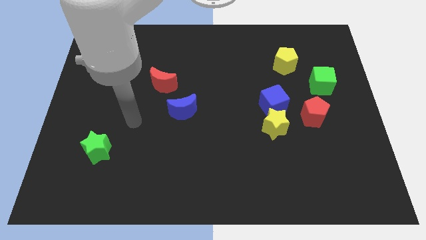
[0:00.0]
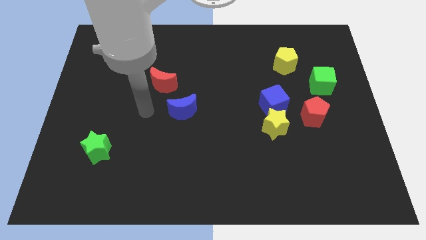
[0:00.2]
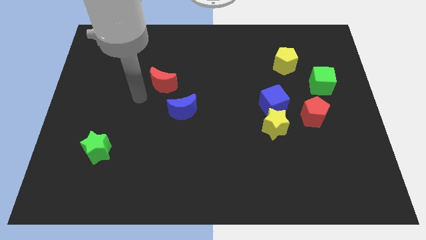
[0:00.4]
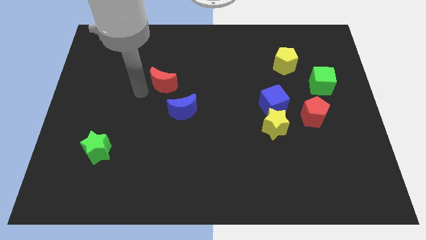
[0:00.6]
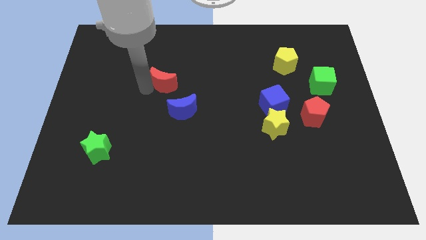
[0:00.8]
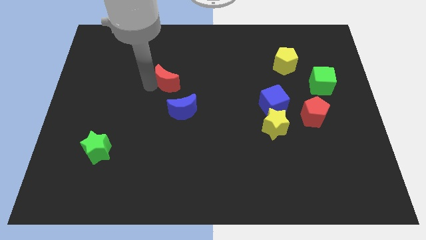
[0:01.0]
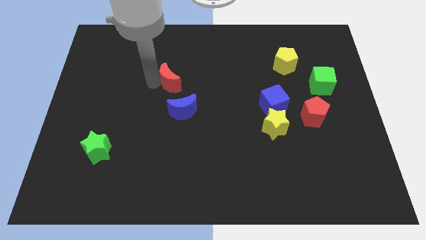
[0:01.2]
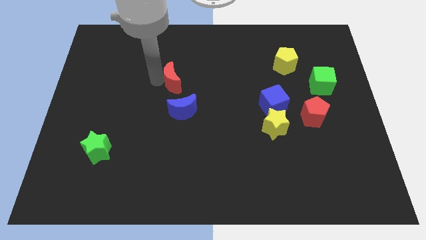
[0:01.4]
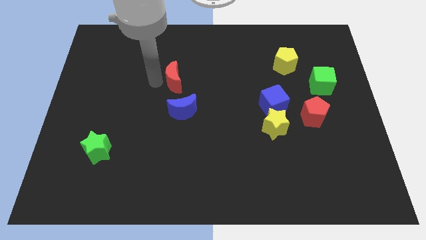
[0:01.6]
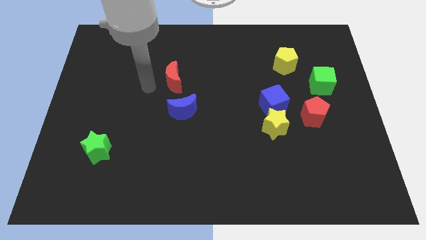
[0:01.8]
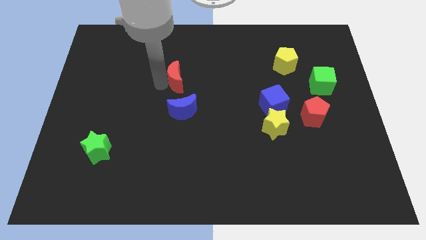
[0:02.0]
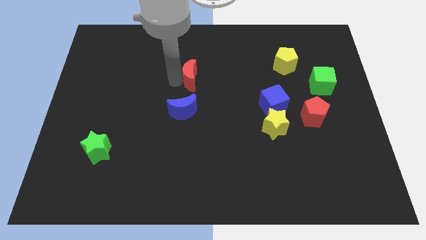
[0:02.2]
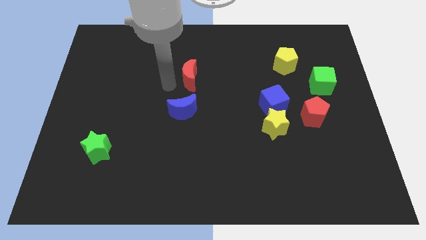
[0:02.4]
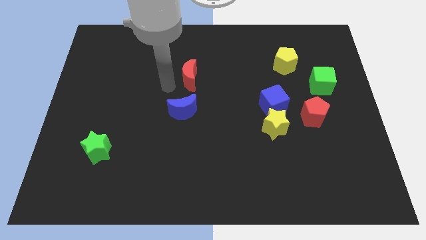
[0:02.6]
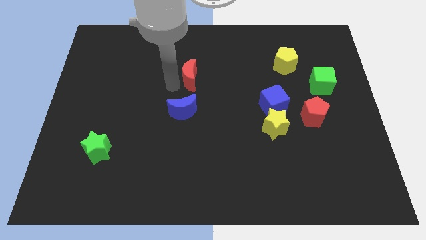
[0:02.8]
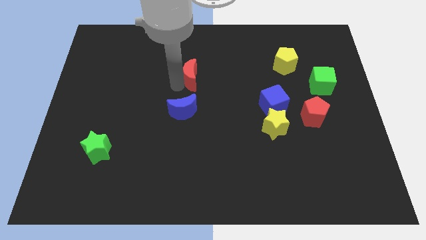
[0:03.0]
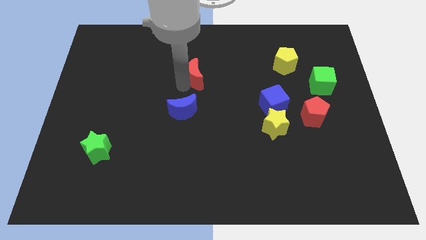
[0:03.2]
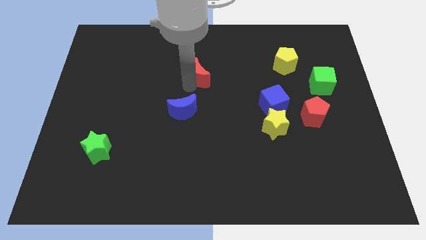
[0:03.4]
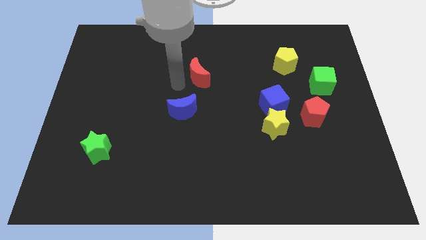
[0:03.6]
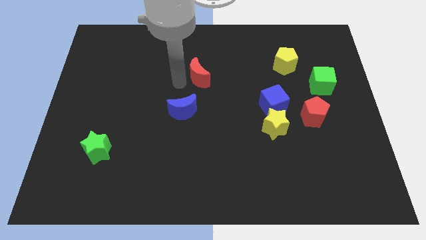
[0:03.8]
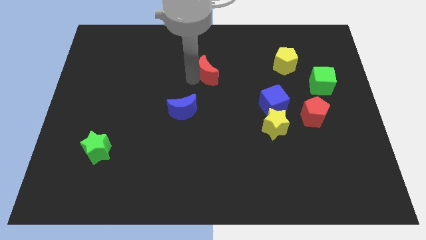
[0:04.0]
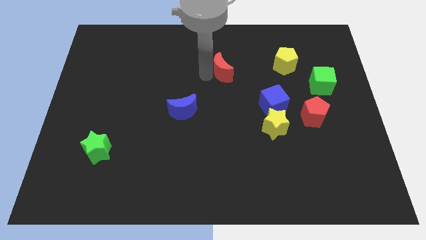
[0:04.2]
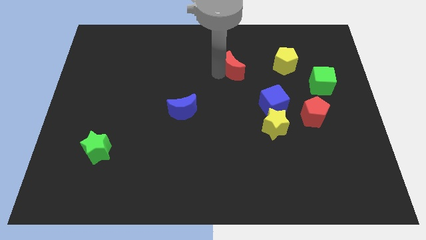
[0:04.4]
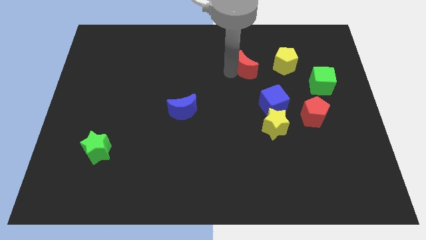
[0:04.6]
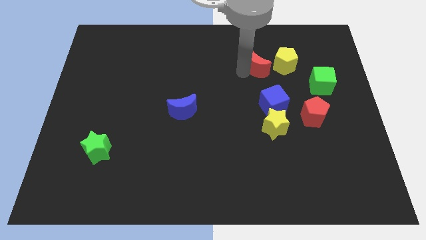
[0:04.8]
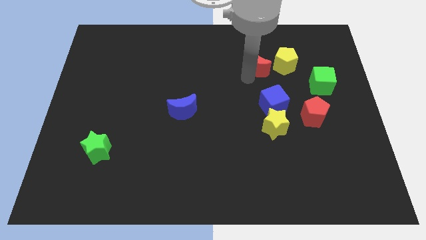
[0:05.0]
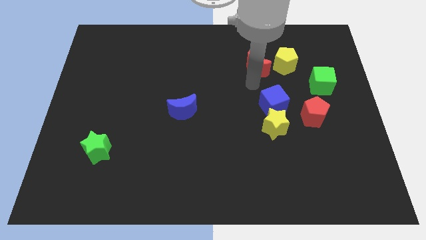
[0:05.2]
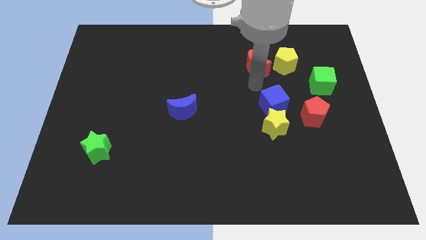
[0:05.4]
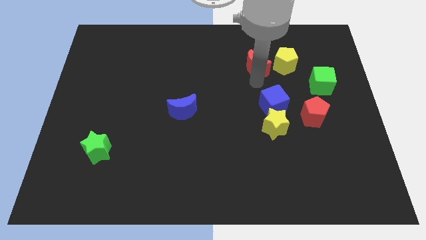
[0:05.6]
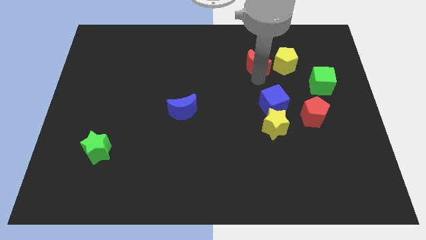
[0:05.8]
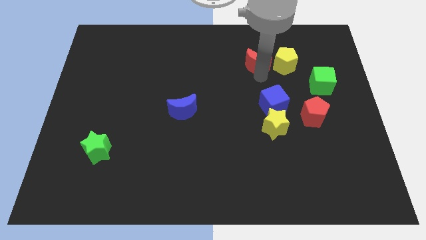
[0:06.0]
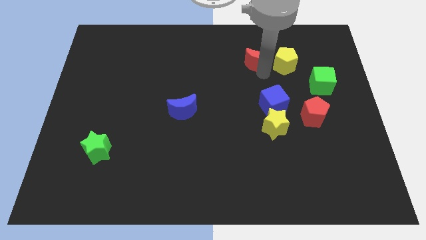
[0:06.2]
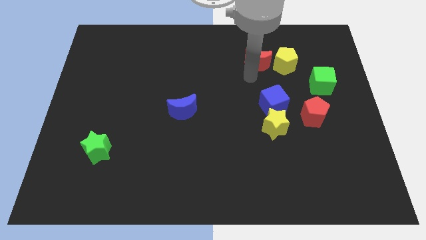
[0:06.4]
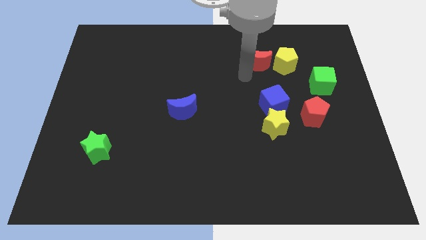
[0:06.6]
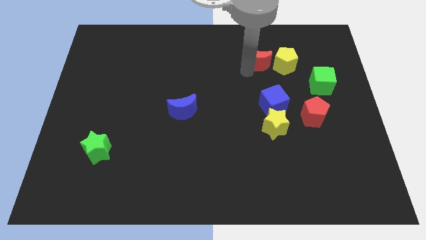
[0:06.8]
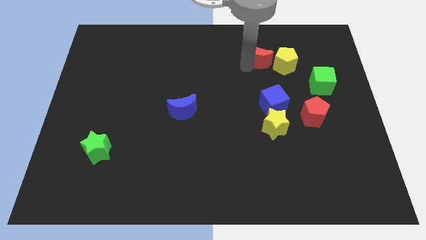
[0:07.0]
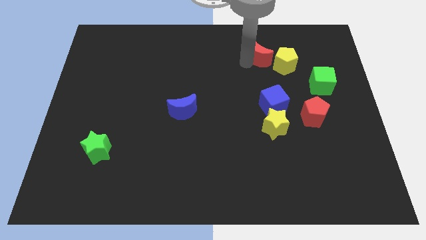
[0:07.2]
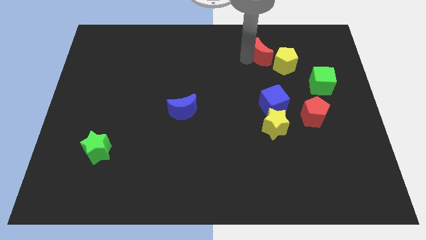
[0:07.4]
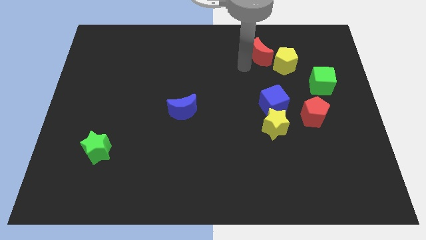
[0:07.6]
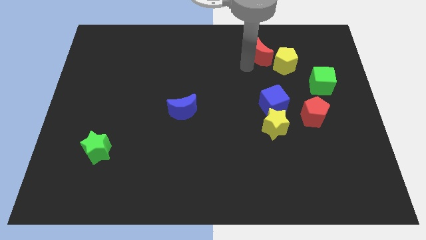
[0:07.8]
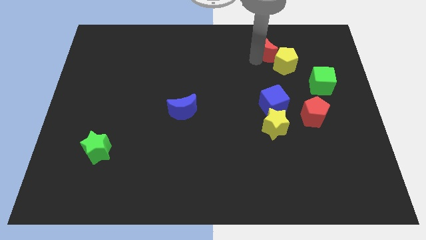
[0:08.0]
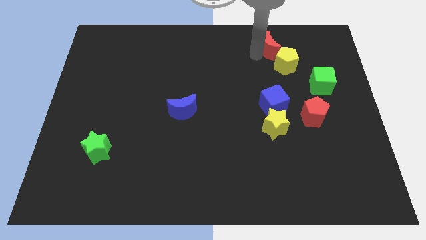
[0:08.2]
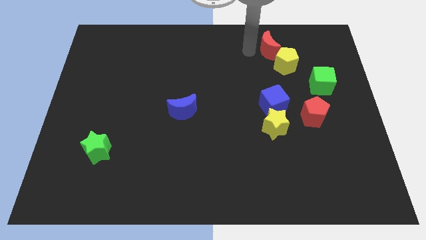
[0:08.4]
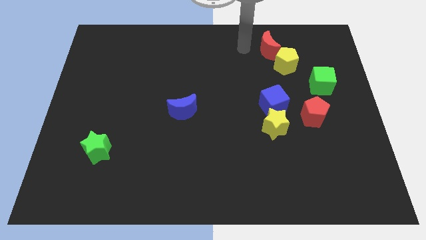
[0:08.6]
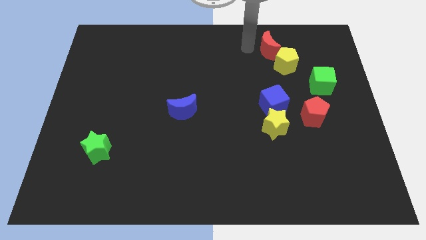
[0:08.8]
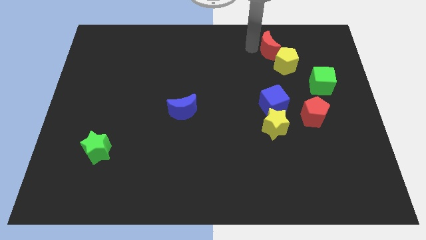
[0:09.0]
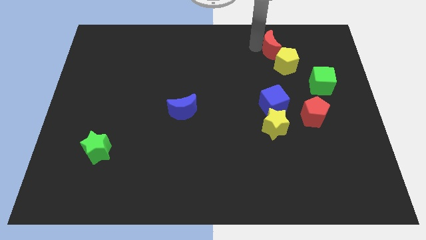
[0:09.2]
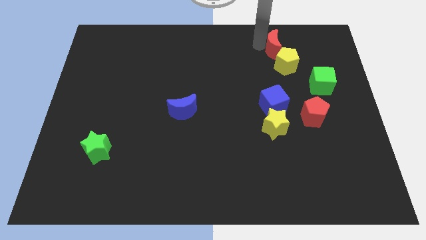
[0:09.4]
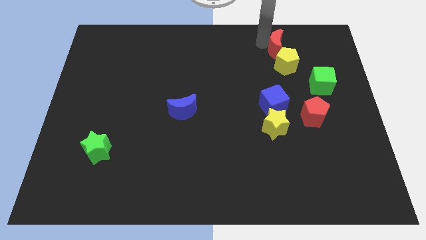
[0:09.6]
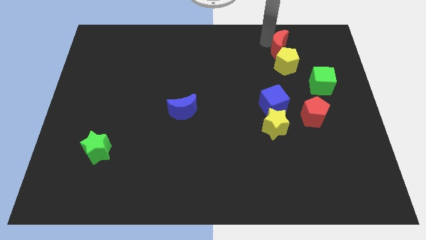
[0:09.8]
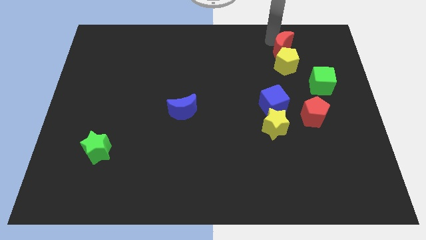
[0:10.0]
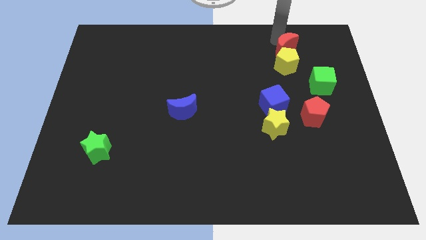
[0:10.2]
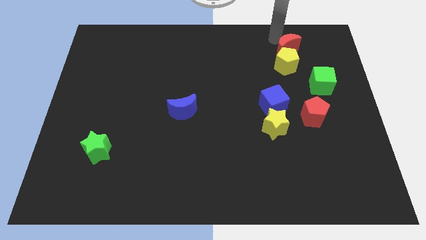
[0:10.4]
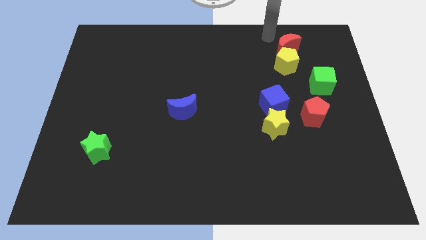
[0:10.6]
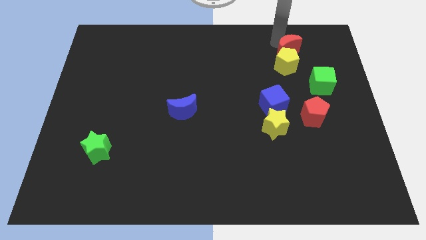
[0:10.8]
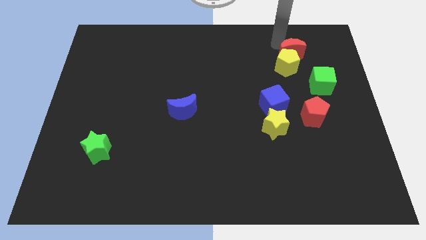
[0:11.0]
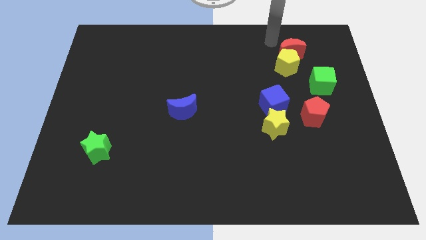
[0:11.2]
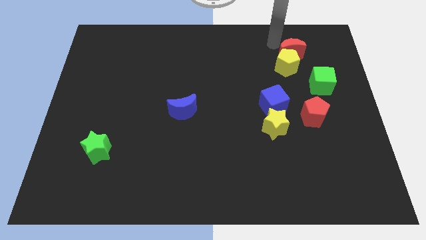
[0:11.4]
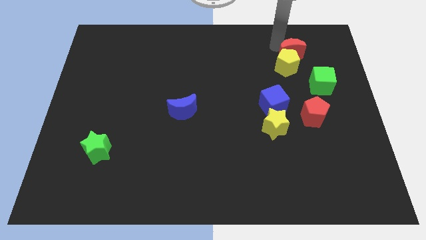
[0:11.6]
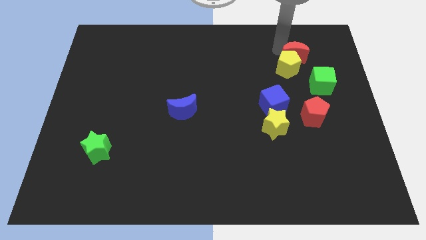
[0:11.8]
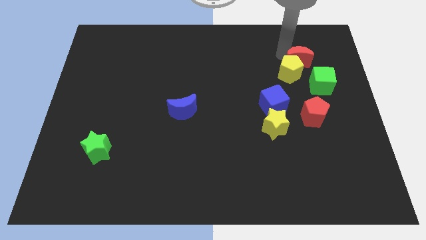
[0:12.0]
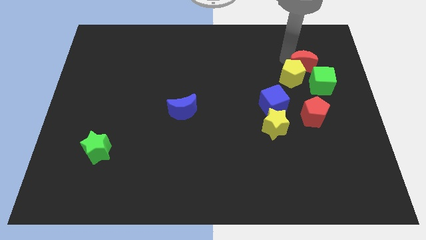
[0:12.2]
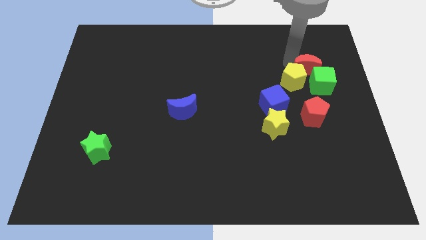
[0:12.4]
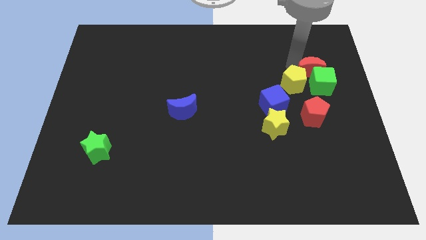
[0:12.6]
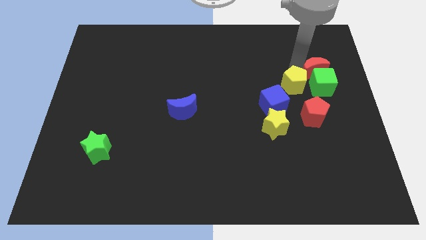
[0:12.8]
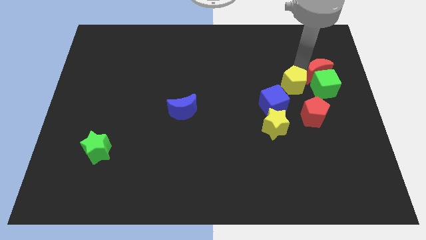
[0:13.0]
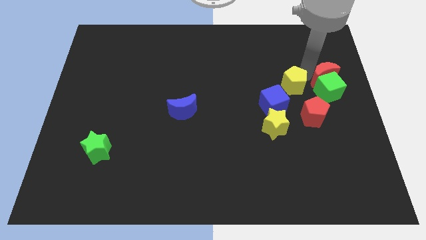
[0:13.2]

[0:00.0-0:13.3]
slide the red moon to the right side of the board

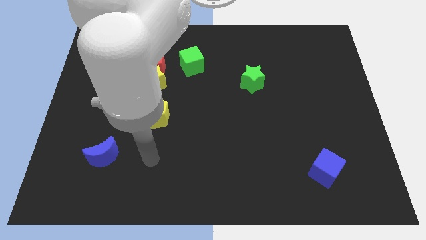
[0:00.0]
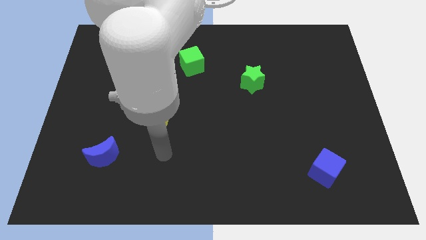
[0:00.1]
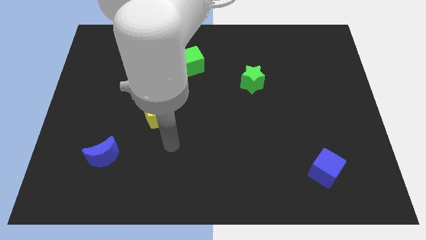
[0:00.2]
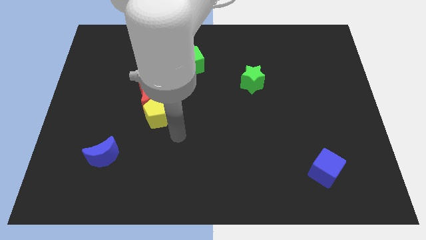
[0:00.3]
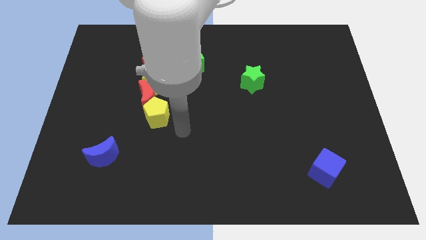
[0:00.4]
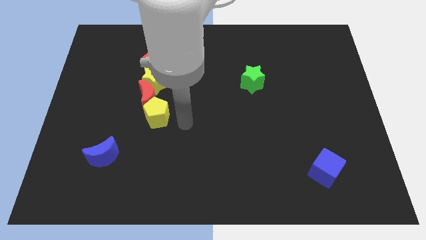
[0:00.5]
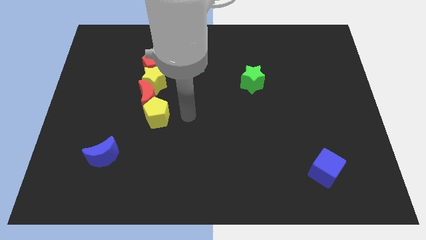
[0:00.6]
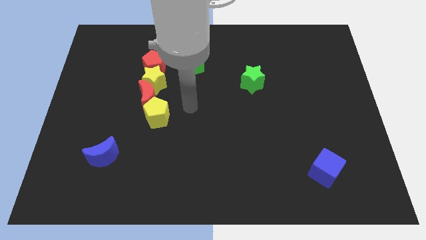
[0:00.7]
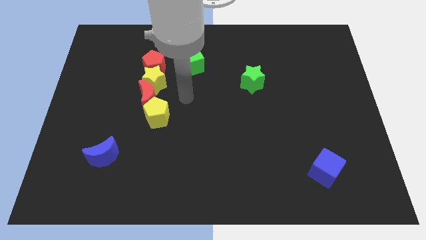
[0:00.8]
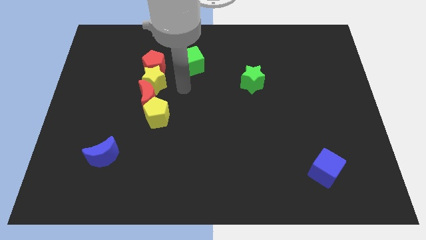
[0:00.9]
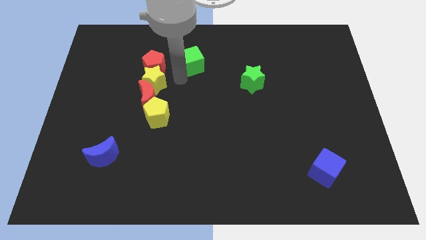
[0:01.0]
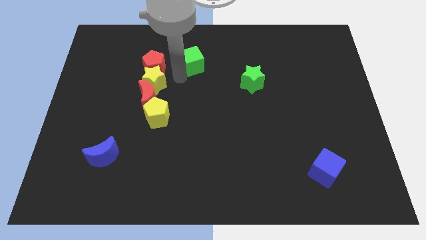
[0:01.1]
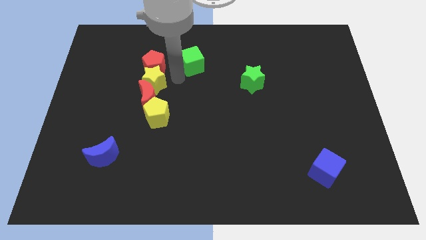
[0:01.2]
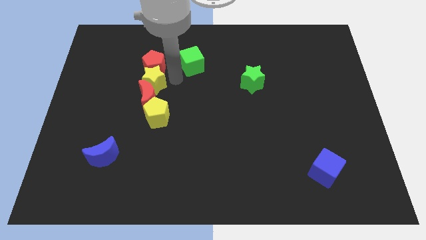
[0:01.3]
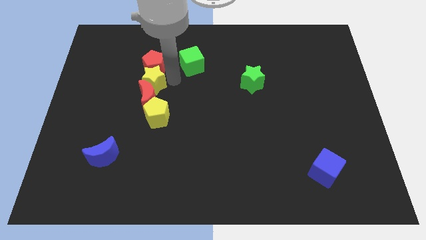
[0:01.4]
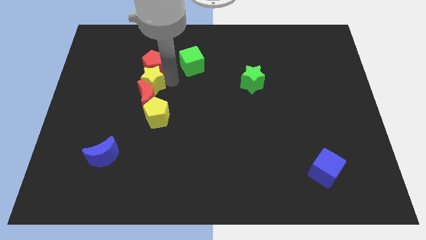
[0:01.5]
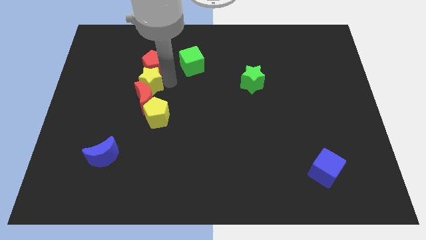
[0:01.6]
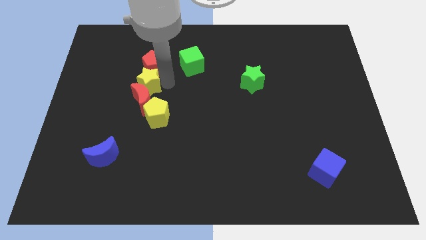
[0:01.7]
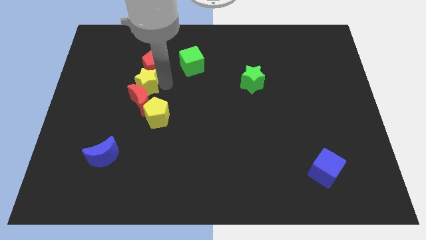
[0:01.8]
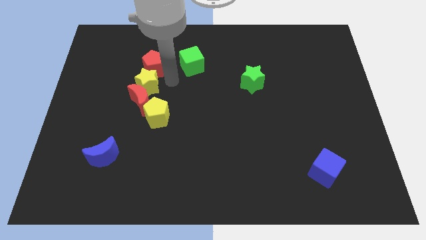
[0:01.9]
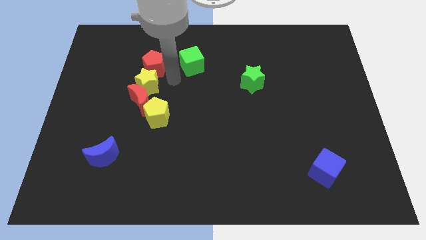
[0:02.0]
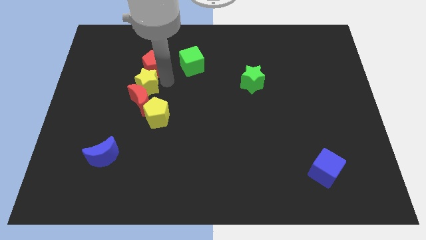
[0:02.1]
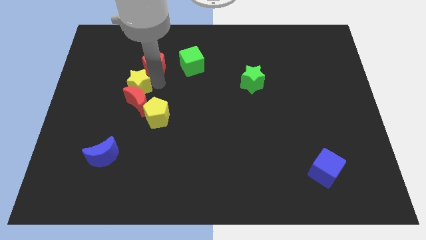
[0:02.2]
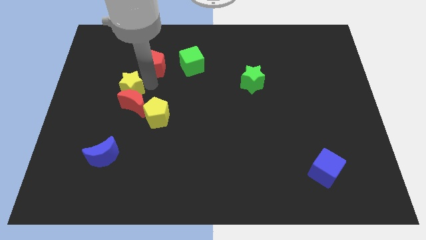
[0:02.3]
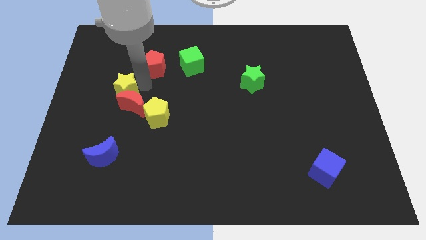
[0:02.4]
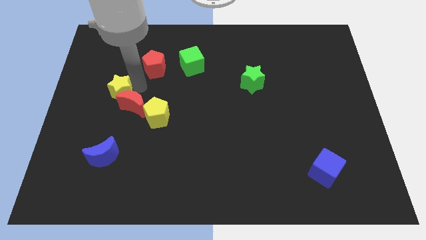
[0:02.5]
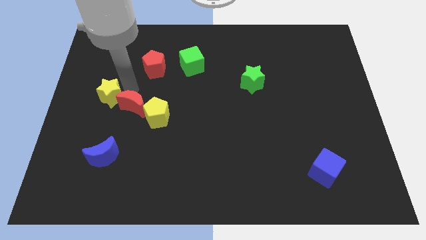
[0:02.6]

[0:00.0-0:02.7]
push the yellow star to the left side
